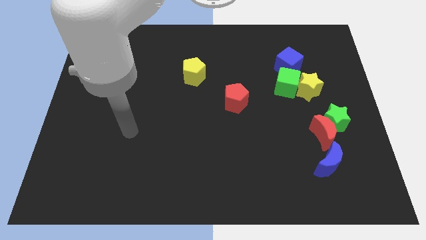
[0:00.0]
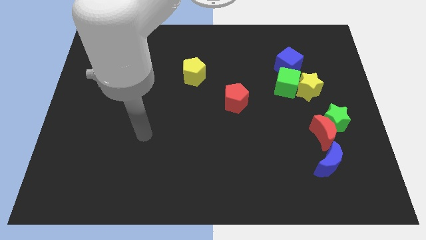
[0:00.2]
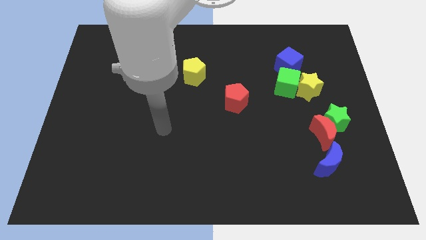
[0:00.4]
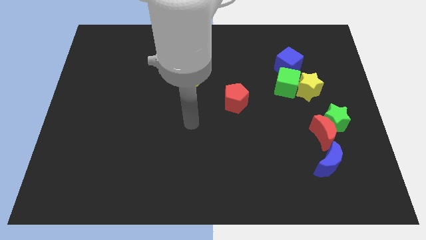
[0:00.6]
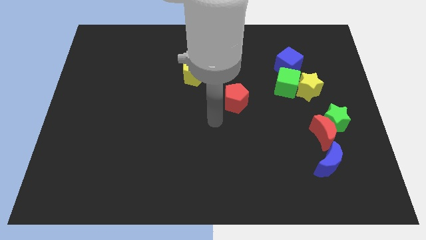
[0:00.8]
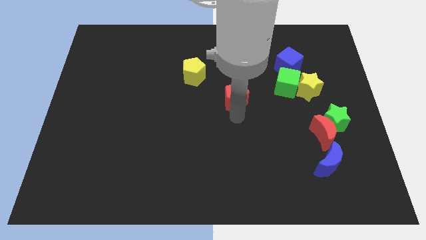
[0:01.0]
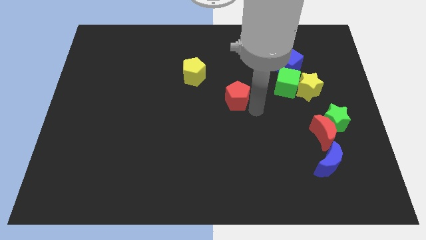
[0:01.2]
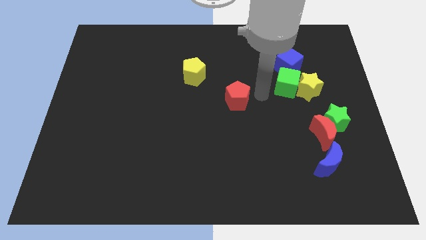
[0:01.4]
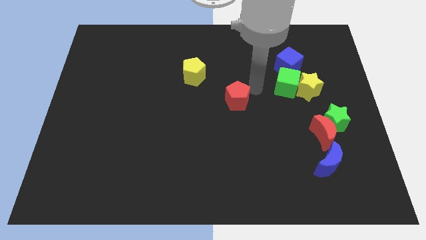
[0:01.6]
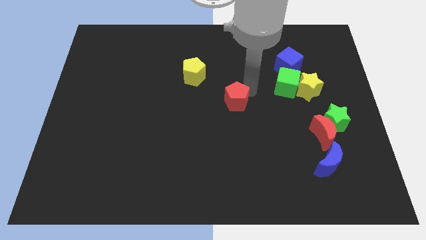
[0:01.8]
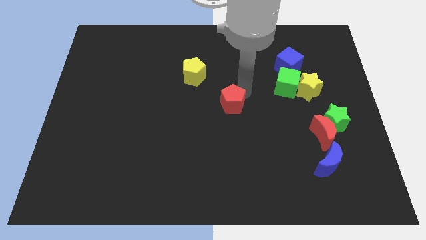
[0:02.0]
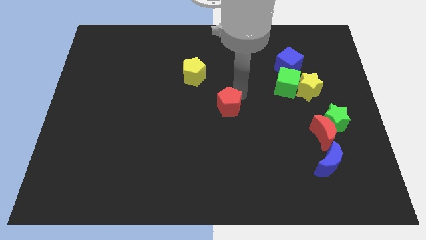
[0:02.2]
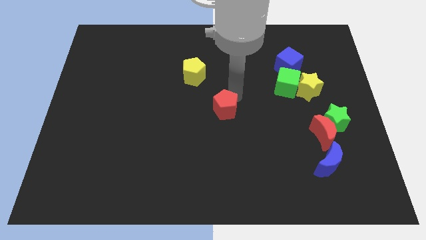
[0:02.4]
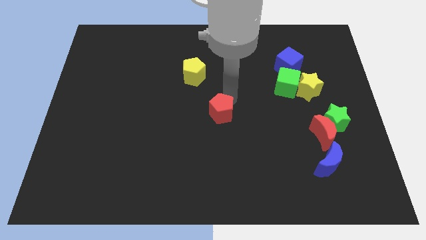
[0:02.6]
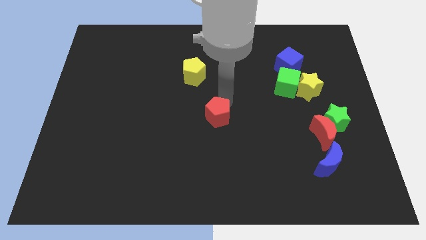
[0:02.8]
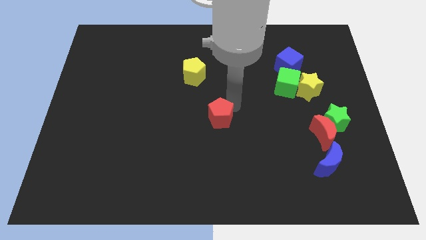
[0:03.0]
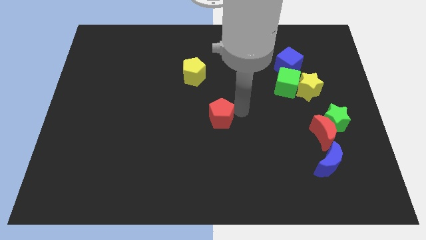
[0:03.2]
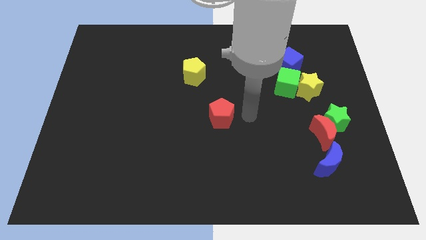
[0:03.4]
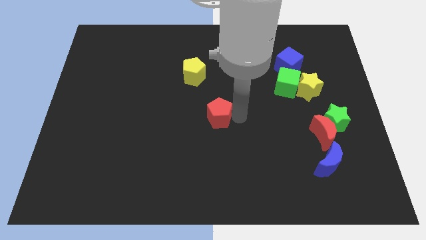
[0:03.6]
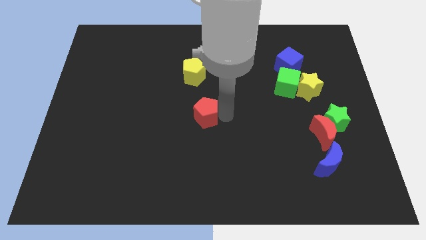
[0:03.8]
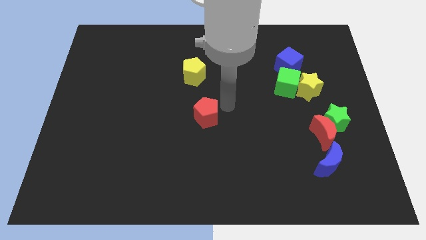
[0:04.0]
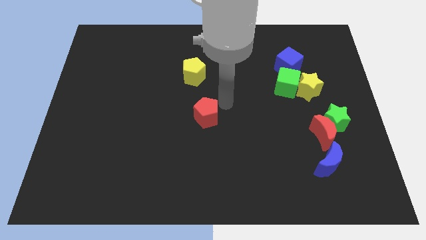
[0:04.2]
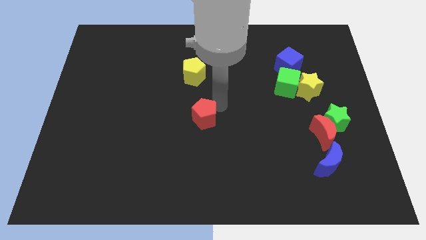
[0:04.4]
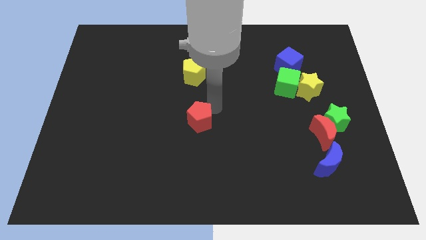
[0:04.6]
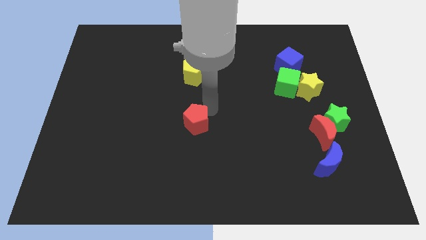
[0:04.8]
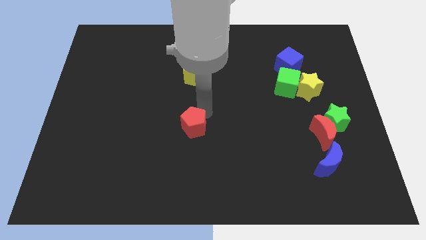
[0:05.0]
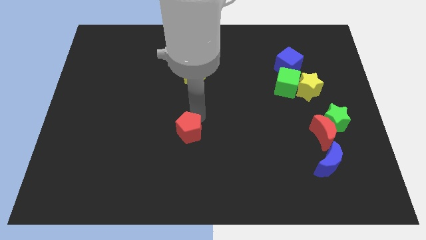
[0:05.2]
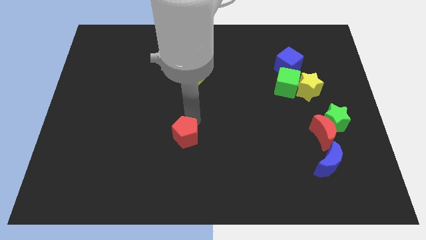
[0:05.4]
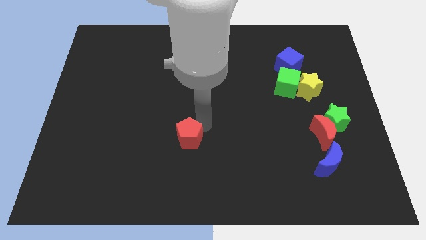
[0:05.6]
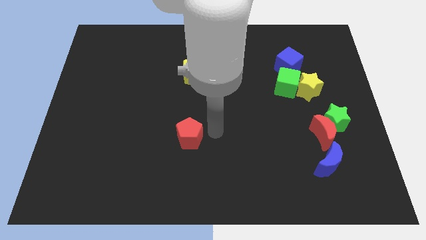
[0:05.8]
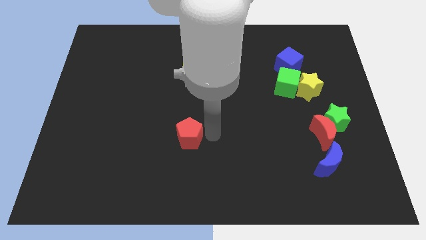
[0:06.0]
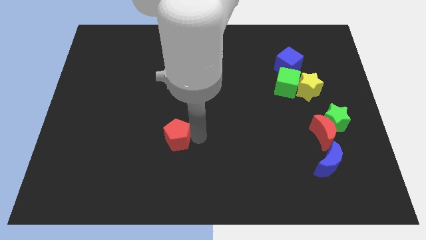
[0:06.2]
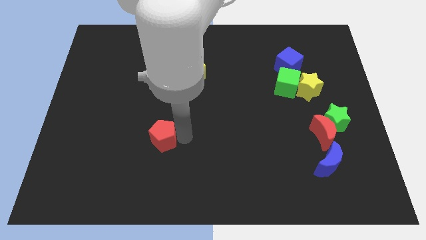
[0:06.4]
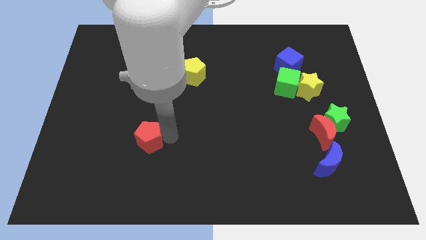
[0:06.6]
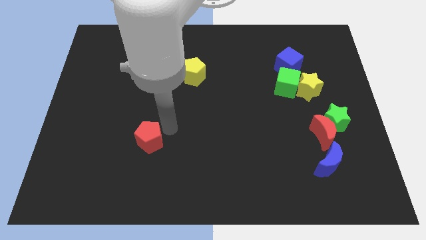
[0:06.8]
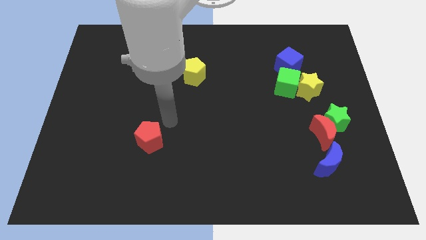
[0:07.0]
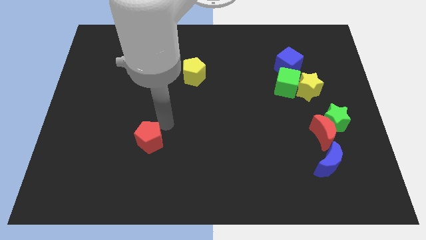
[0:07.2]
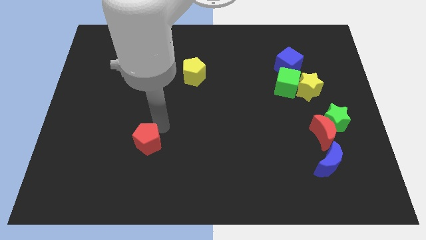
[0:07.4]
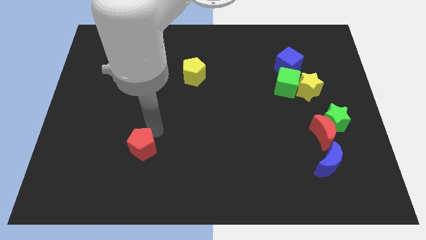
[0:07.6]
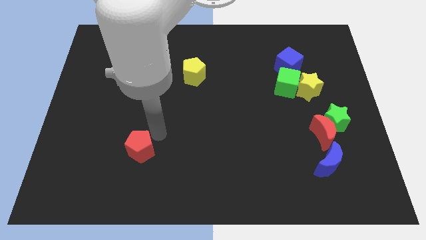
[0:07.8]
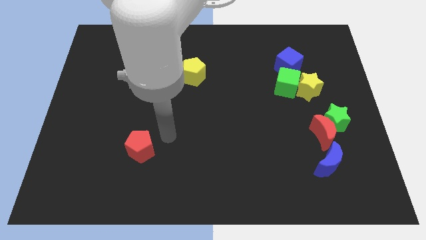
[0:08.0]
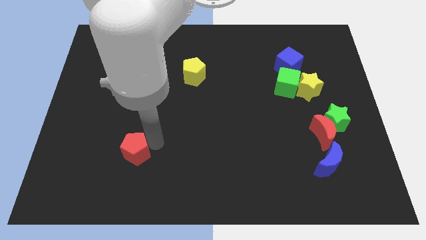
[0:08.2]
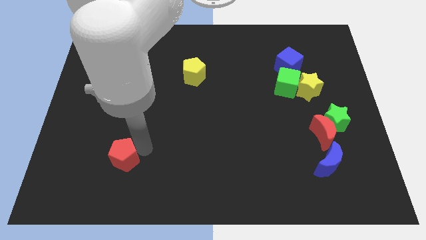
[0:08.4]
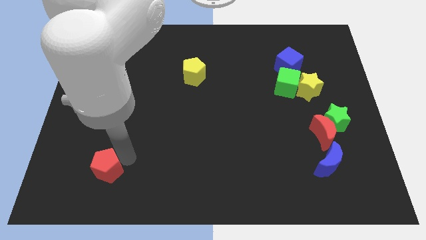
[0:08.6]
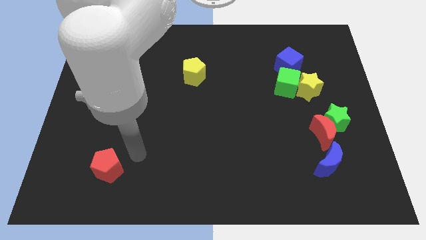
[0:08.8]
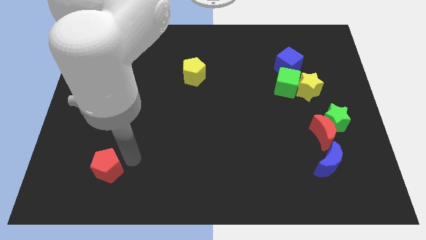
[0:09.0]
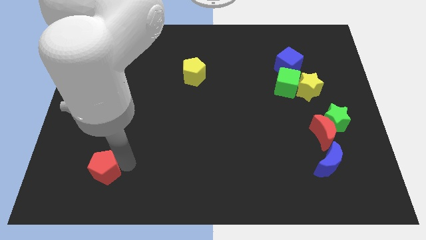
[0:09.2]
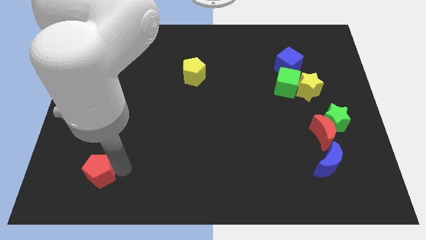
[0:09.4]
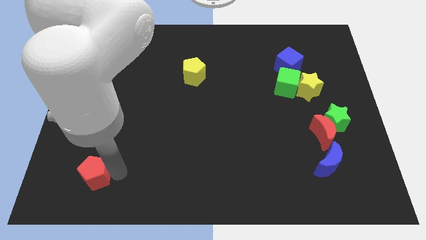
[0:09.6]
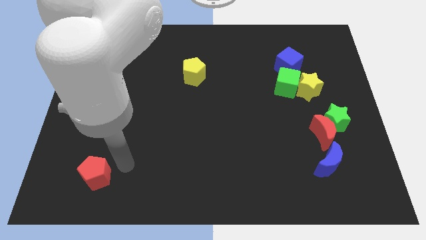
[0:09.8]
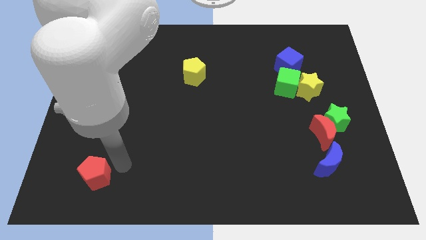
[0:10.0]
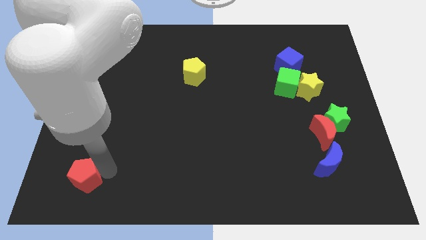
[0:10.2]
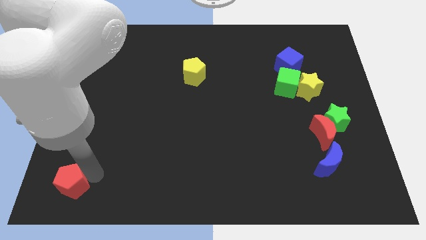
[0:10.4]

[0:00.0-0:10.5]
put the red pentagon to the bottom left

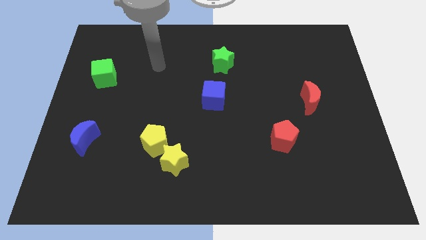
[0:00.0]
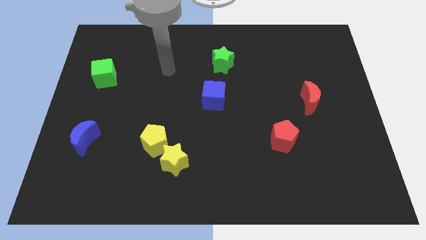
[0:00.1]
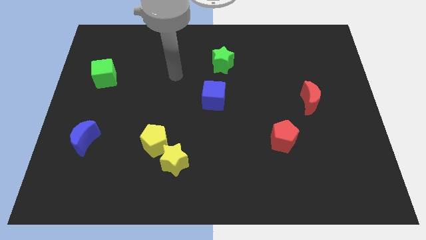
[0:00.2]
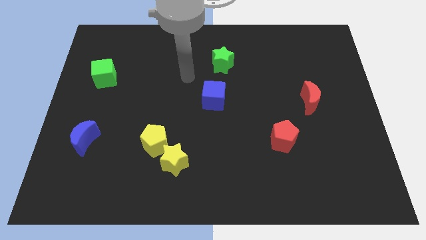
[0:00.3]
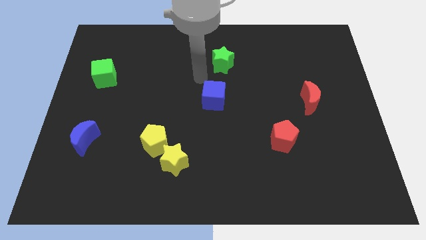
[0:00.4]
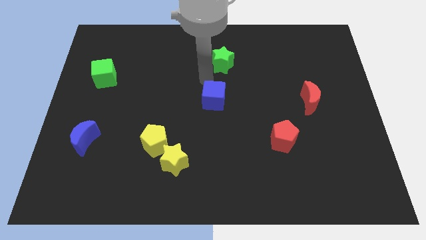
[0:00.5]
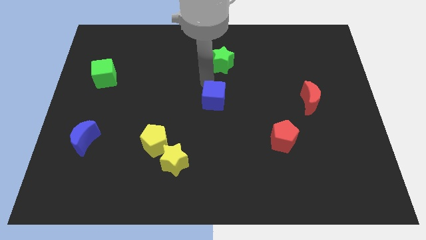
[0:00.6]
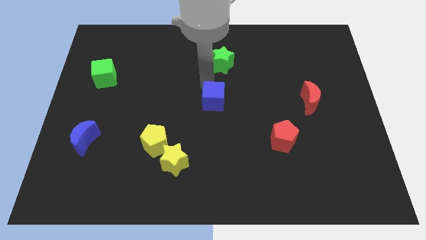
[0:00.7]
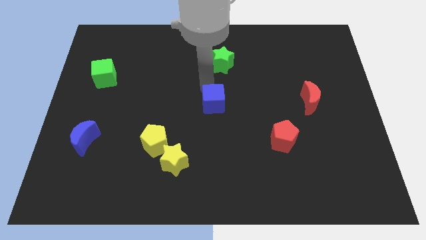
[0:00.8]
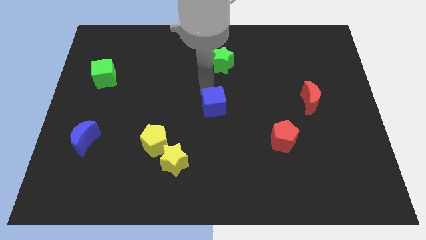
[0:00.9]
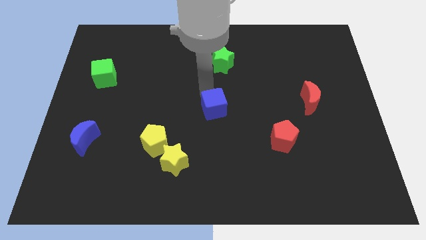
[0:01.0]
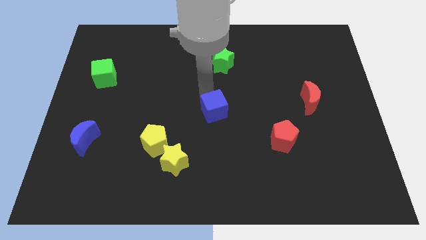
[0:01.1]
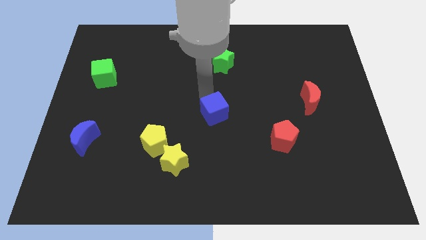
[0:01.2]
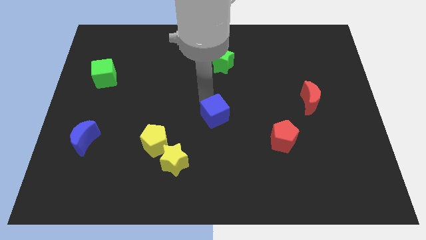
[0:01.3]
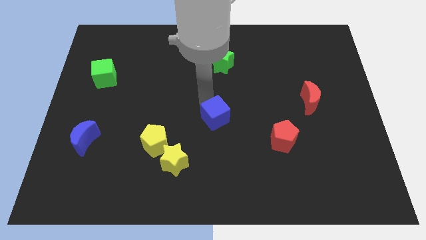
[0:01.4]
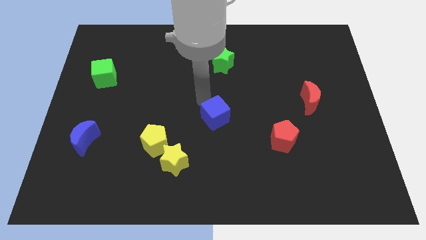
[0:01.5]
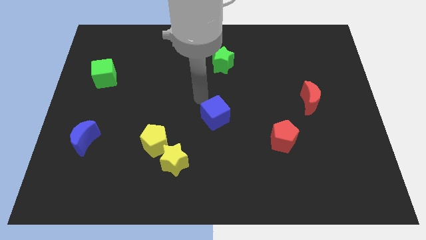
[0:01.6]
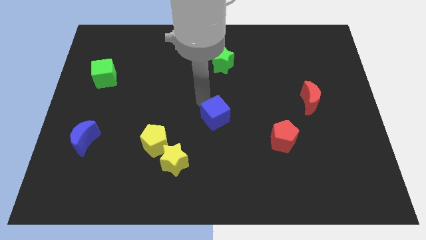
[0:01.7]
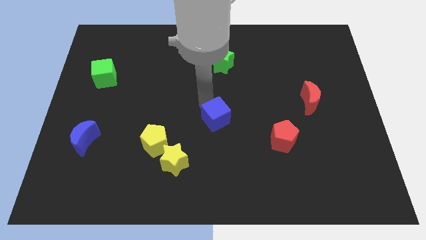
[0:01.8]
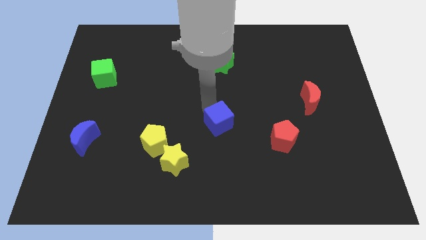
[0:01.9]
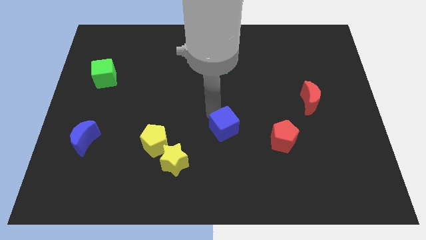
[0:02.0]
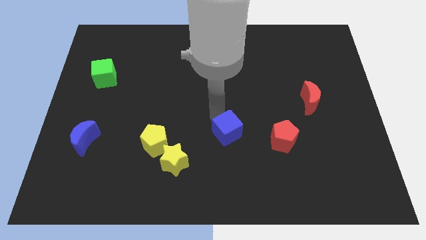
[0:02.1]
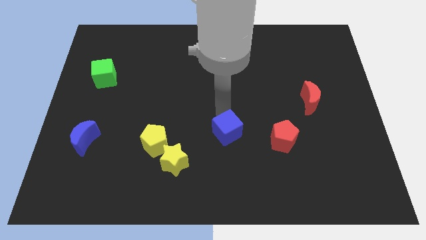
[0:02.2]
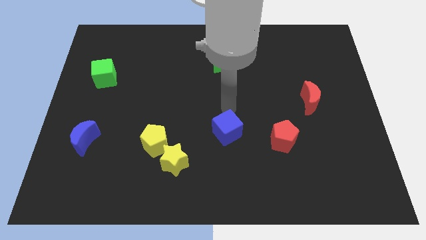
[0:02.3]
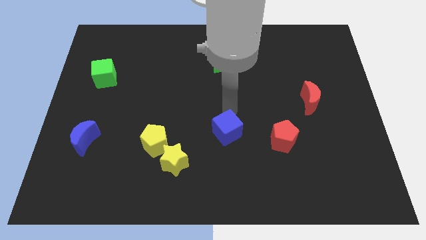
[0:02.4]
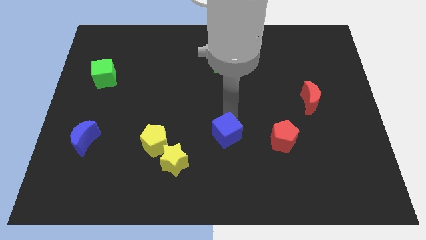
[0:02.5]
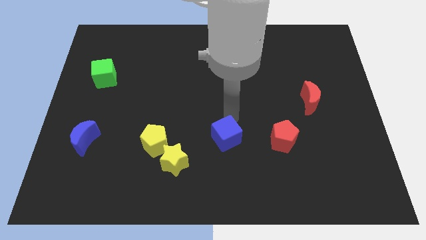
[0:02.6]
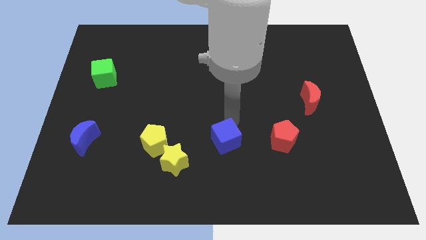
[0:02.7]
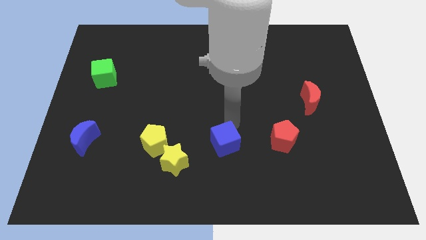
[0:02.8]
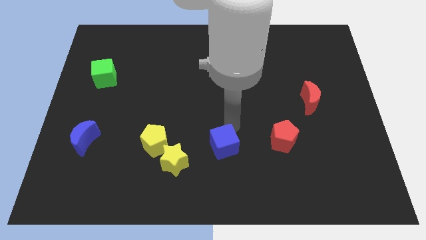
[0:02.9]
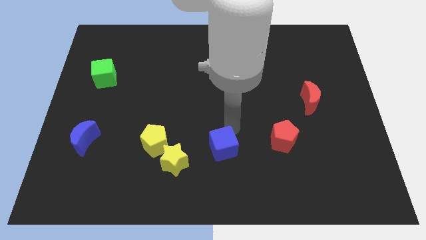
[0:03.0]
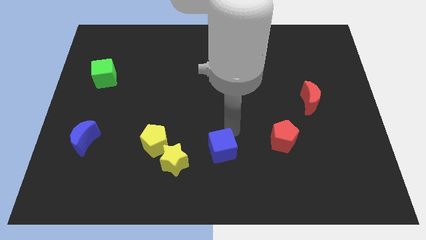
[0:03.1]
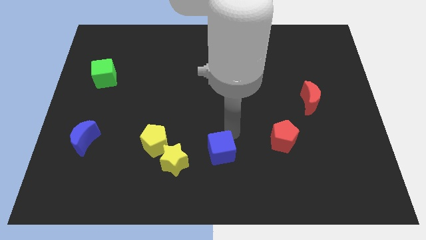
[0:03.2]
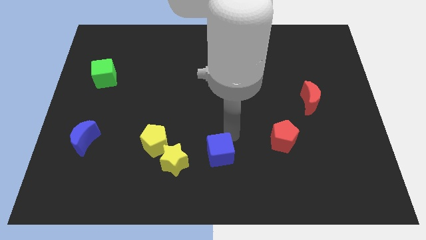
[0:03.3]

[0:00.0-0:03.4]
move the blue cube to the bottom
